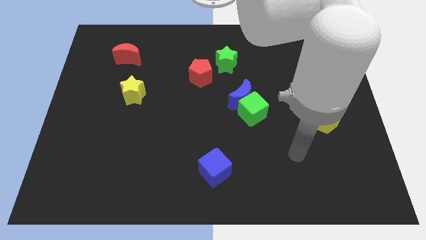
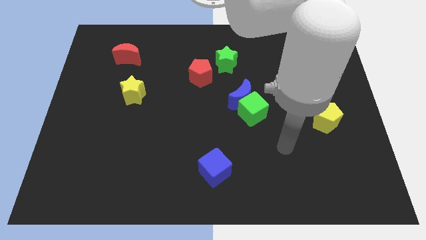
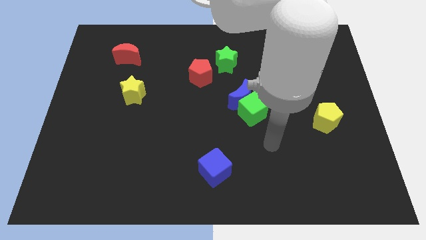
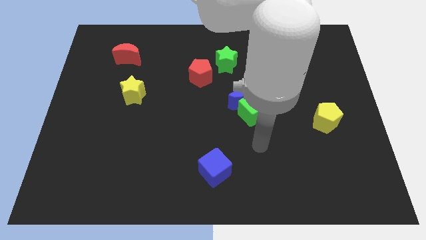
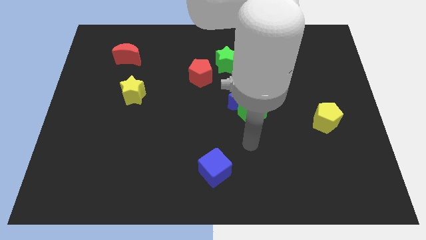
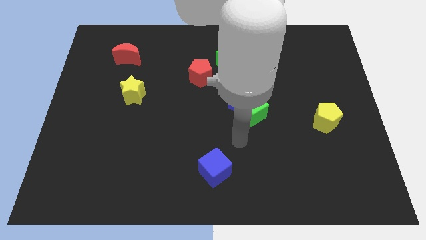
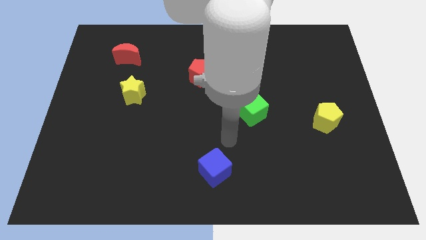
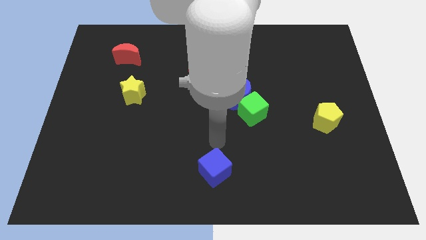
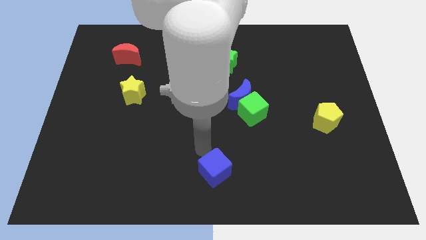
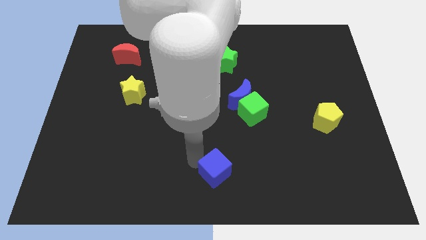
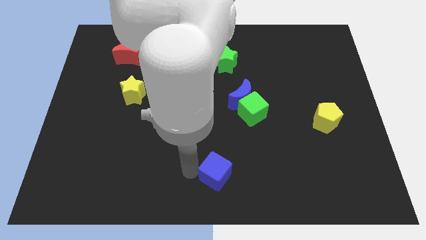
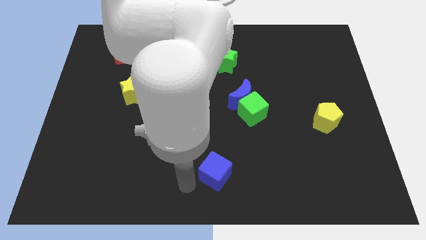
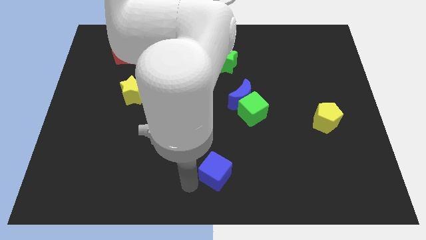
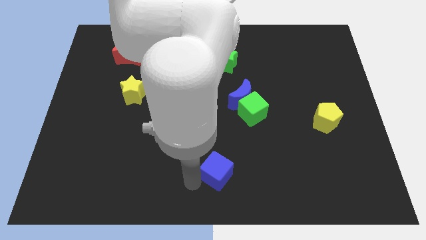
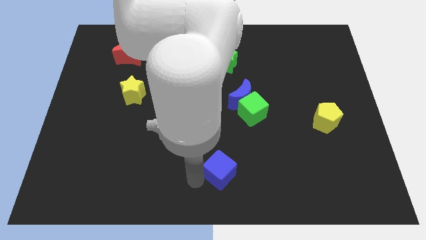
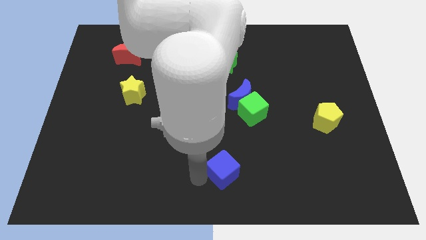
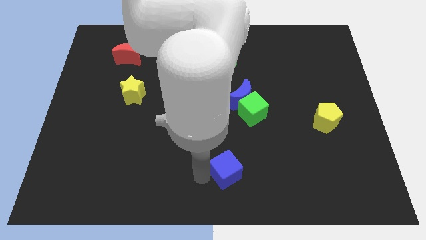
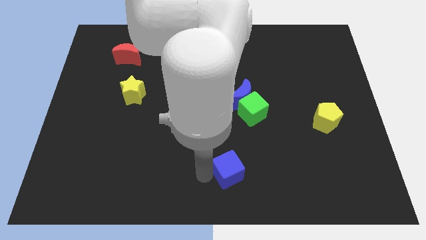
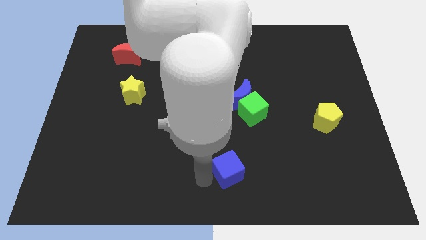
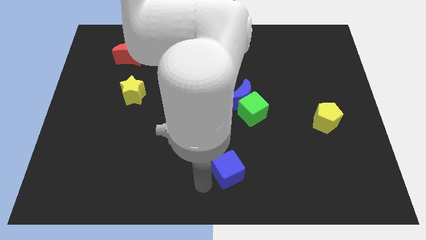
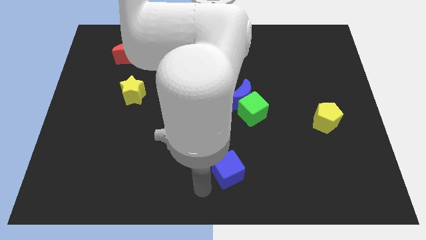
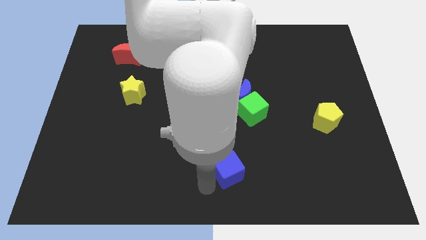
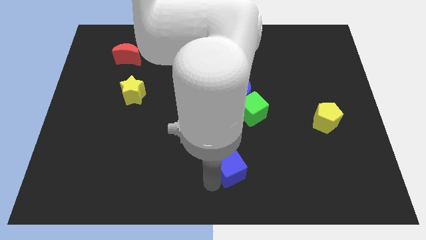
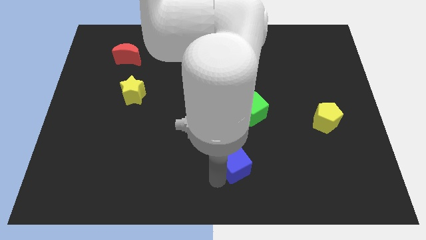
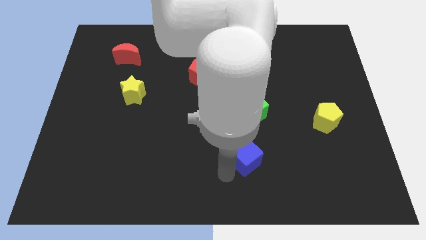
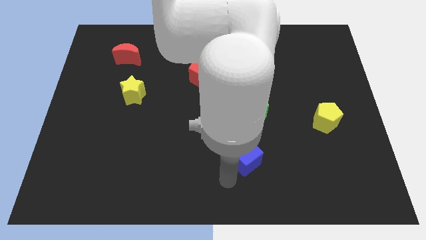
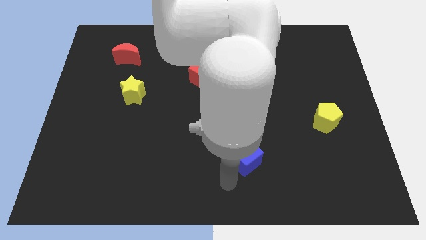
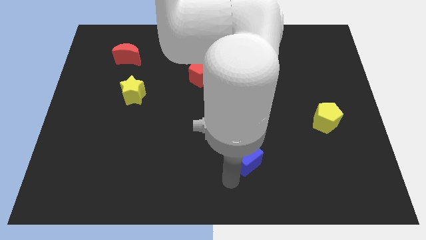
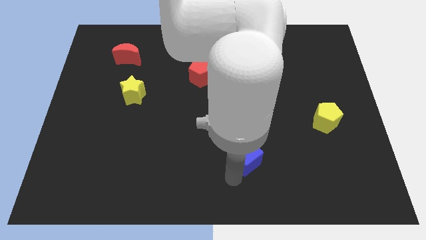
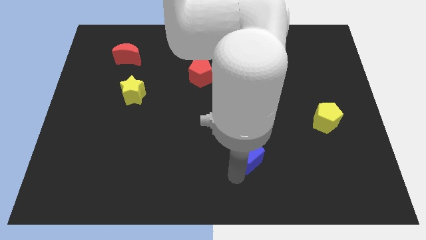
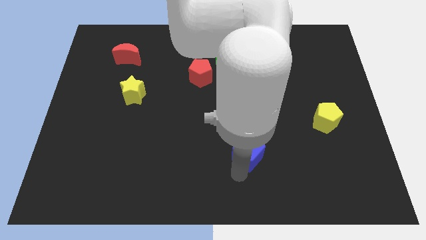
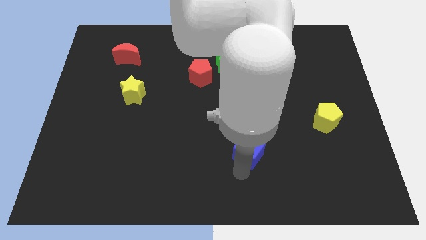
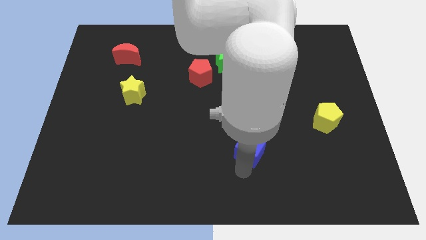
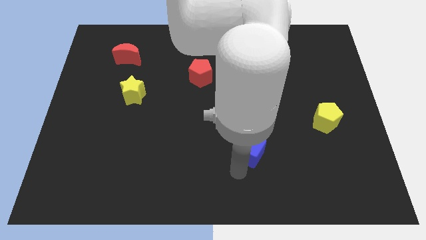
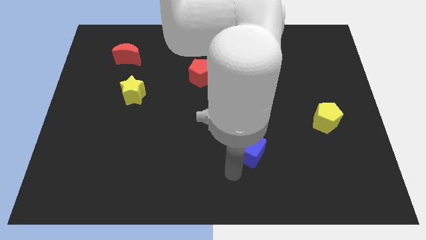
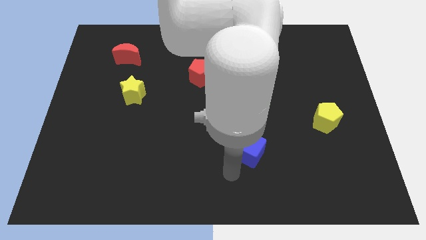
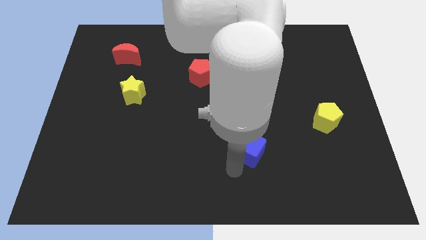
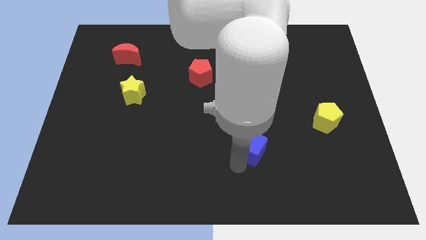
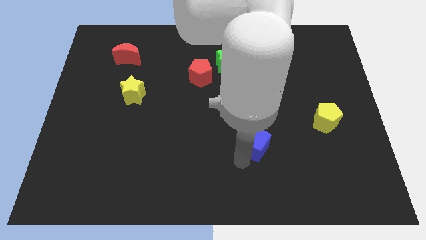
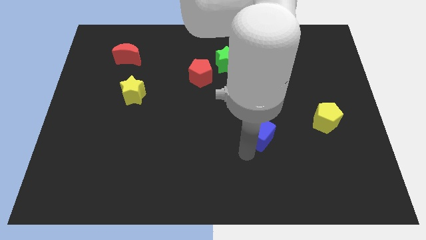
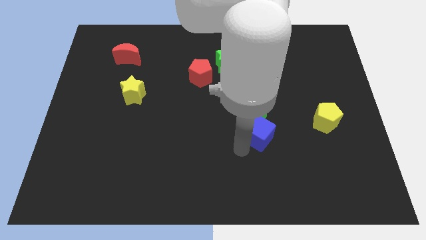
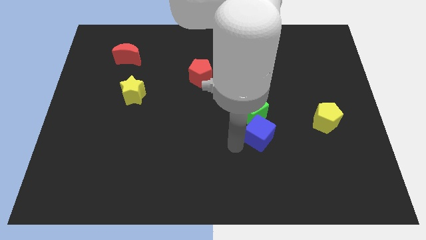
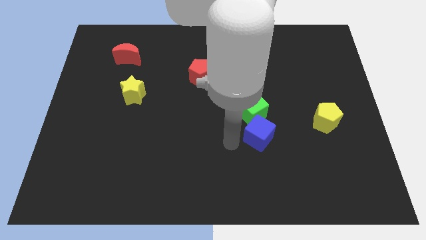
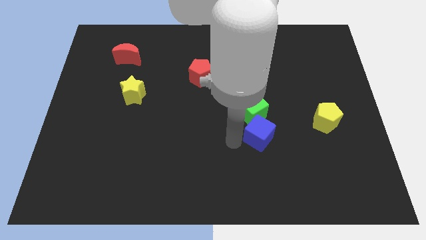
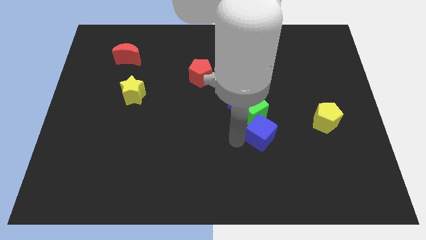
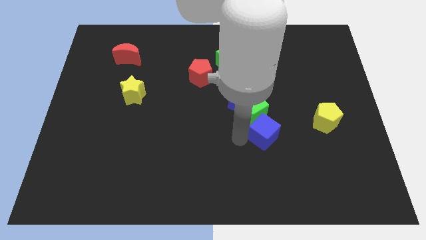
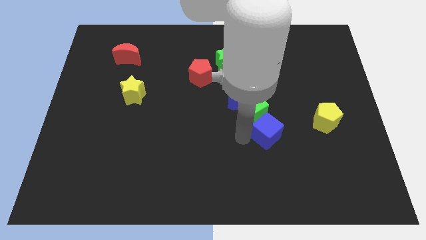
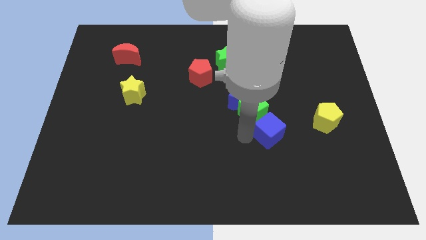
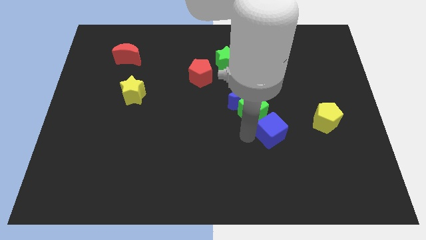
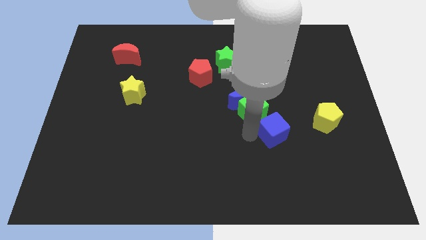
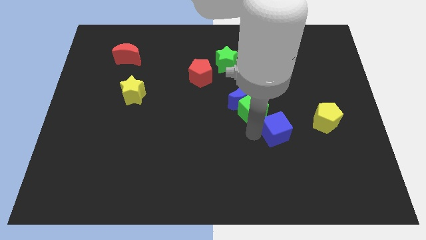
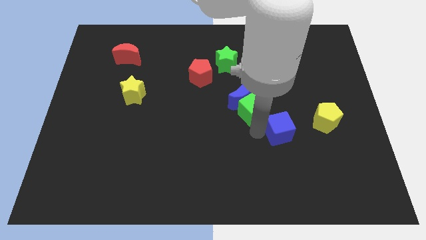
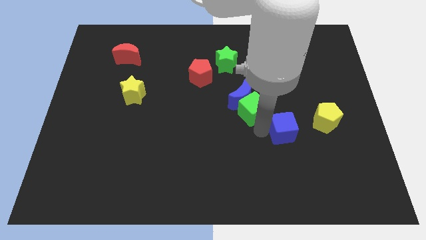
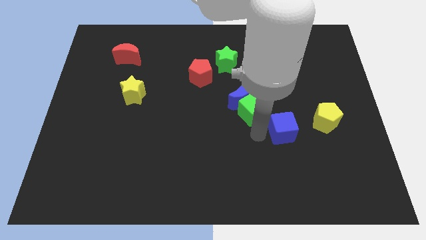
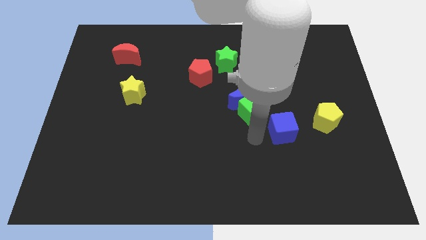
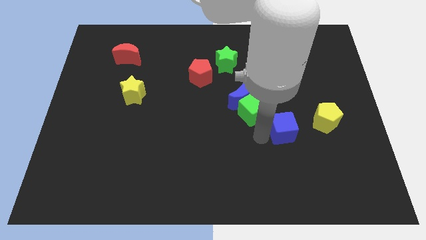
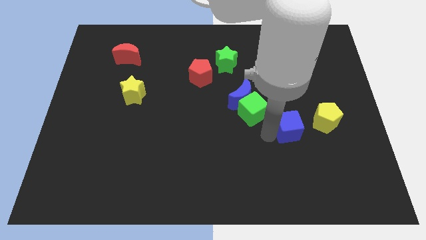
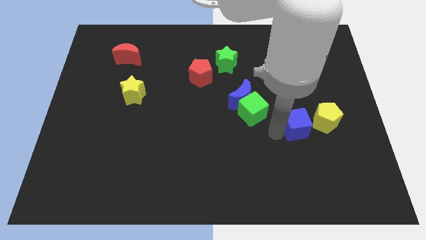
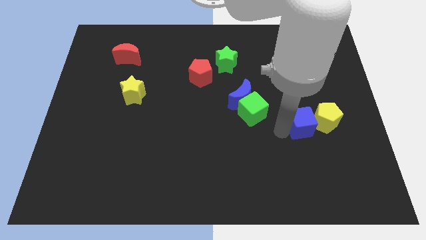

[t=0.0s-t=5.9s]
slide the blue cube close to the yellow pentagon

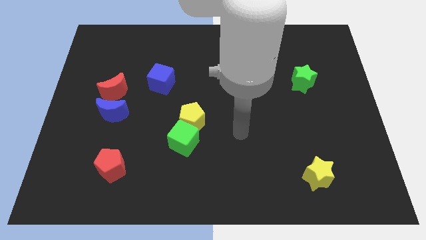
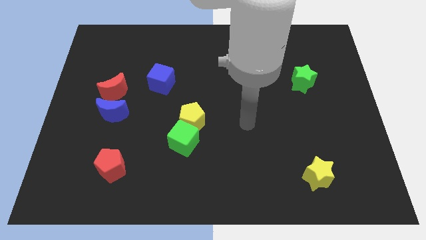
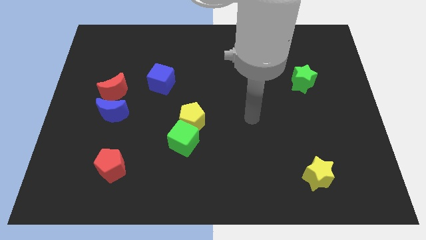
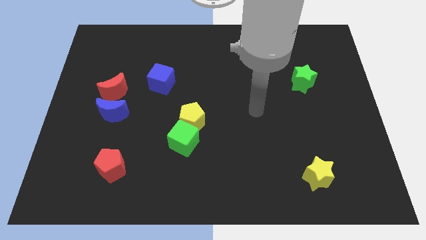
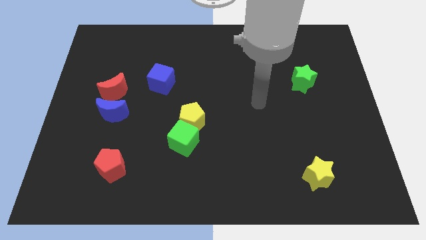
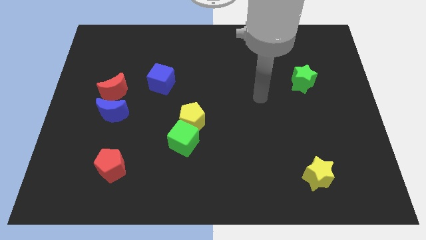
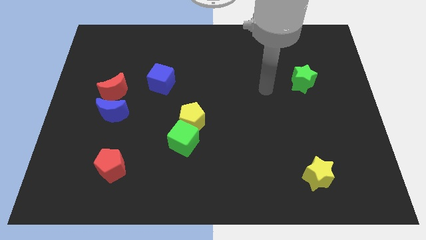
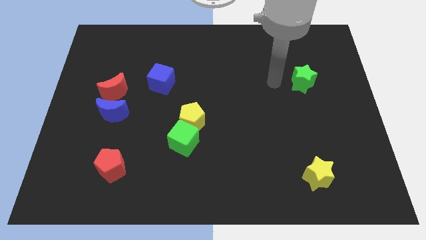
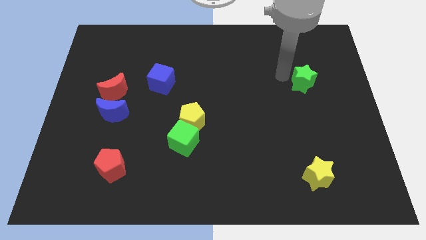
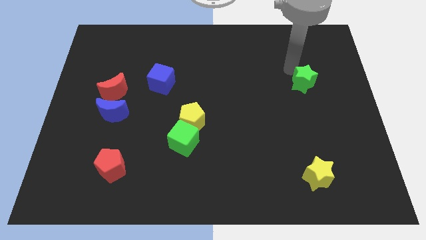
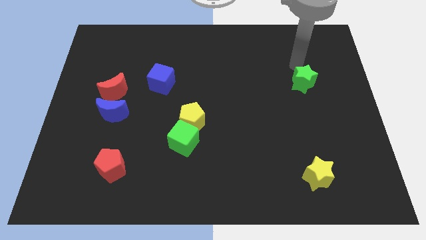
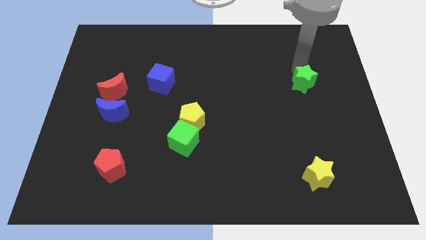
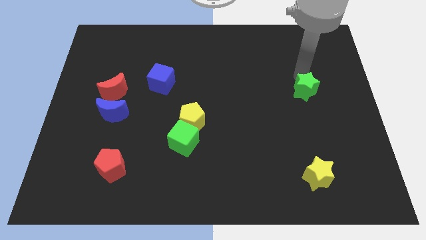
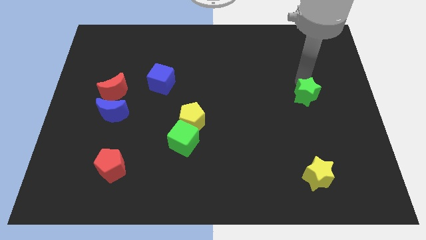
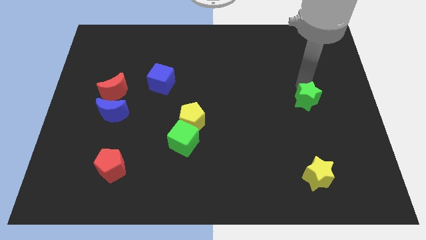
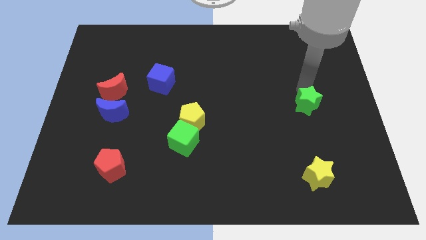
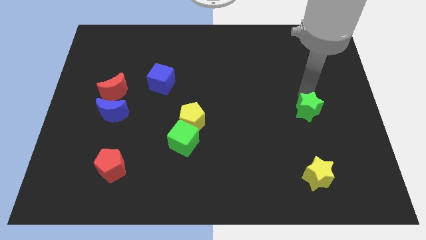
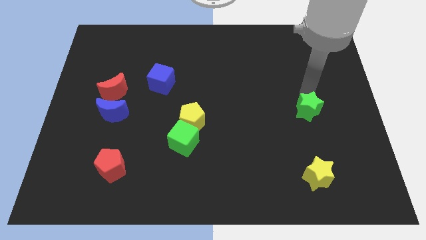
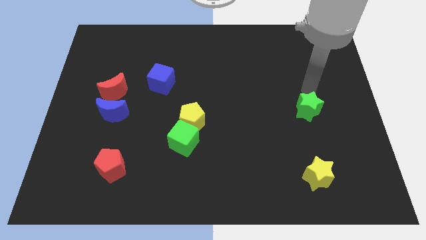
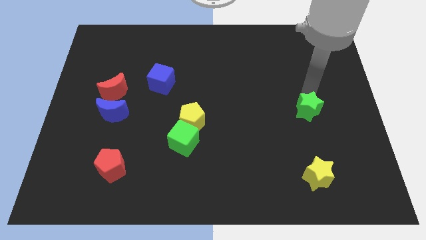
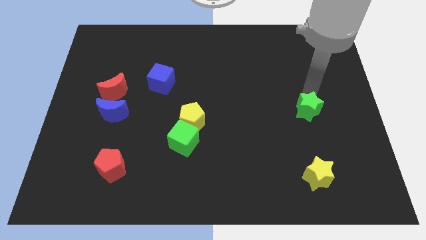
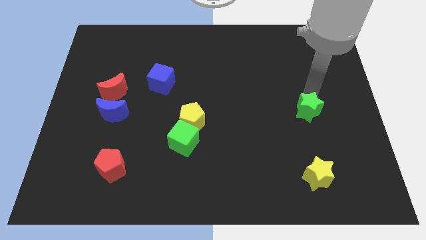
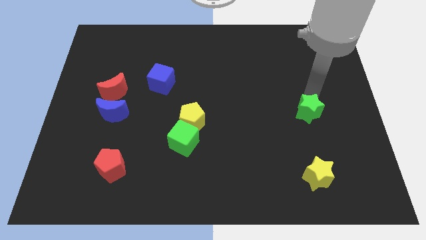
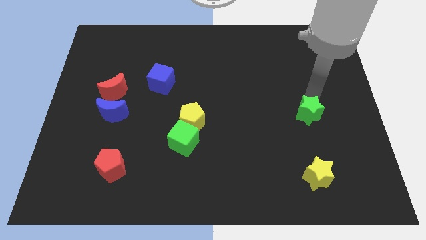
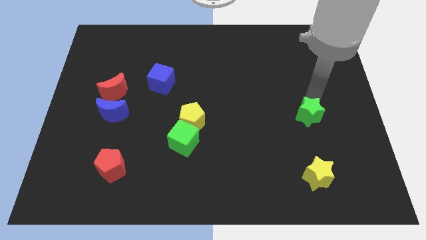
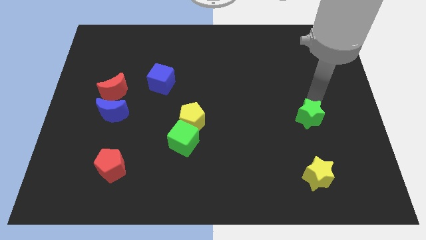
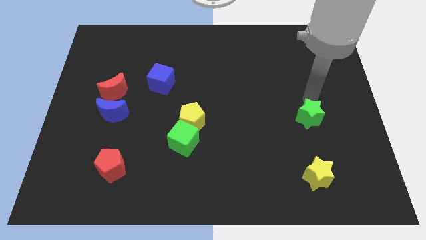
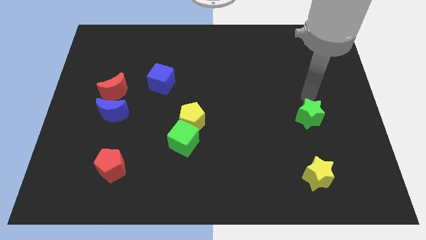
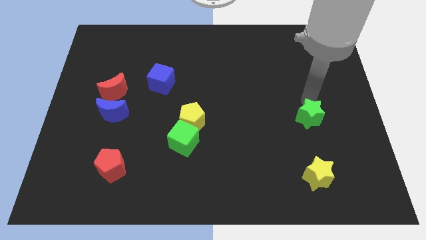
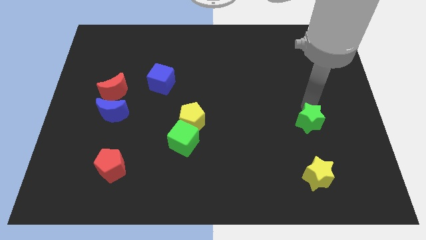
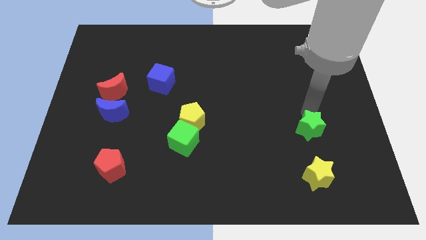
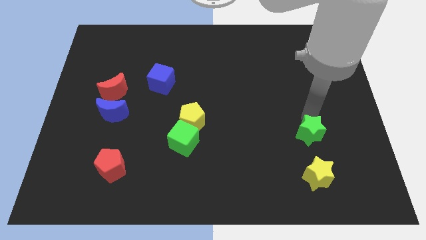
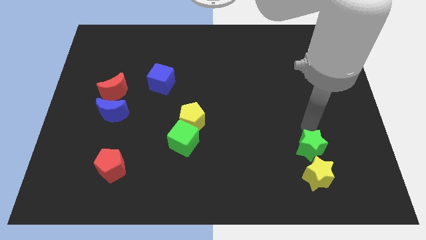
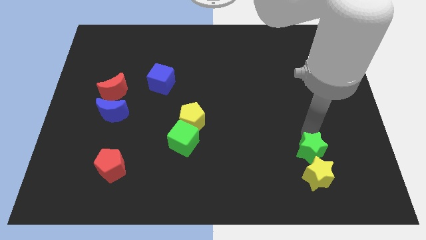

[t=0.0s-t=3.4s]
slide the green star next to the yellow star
